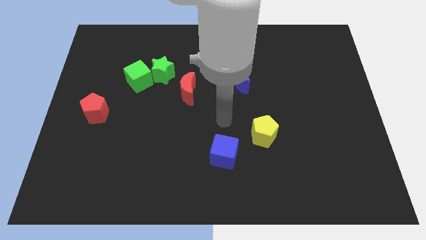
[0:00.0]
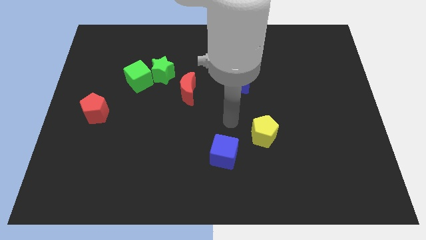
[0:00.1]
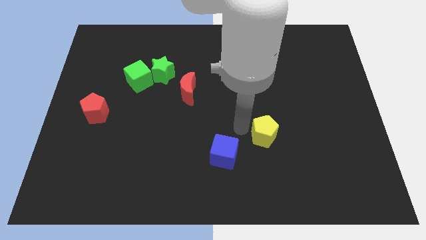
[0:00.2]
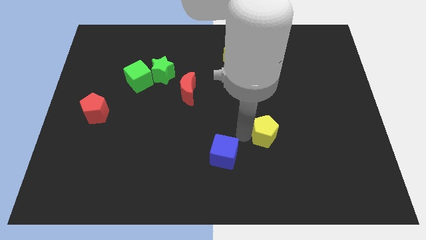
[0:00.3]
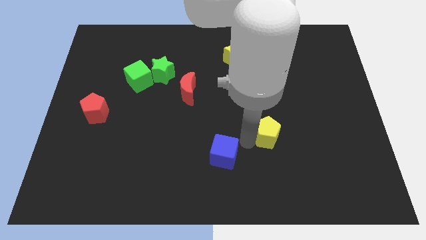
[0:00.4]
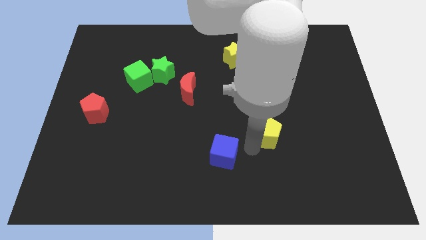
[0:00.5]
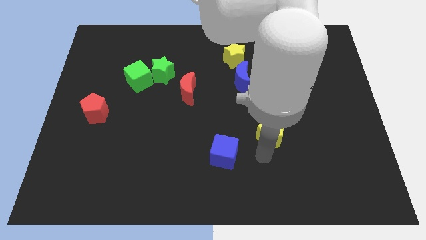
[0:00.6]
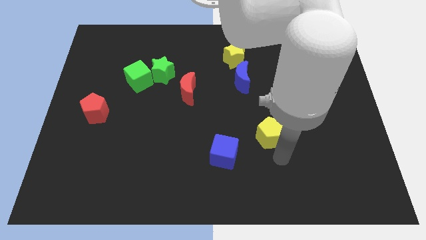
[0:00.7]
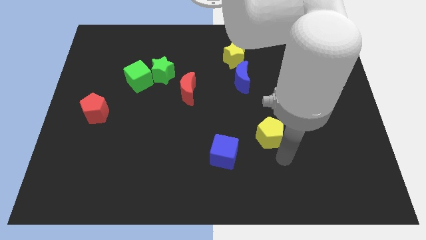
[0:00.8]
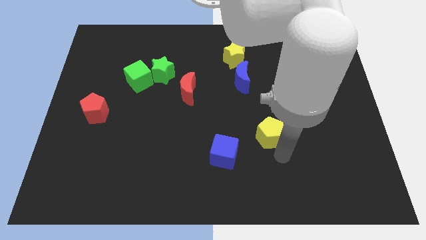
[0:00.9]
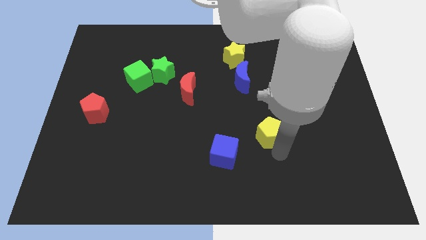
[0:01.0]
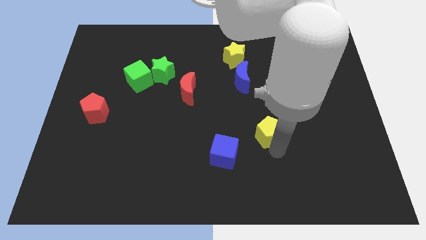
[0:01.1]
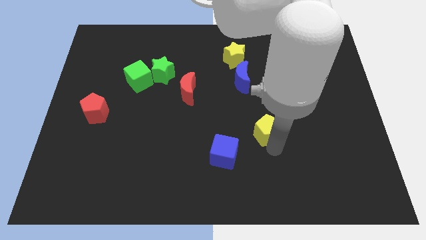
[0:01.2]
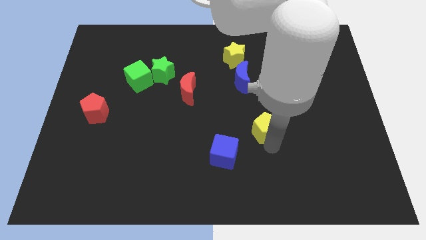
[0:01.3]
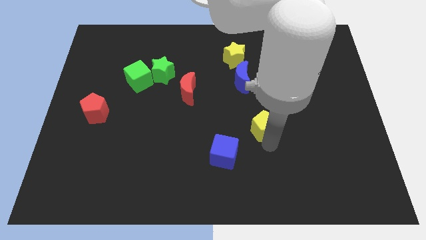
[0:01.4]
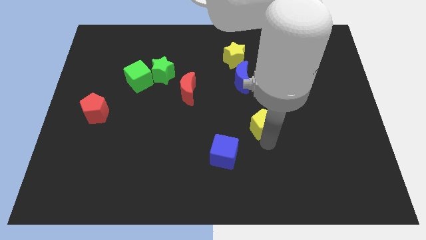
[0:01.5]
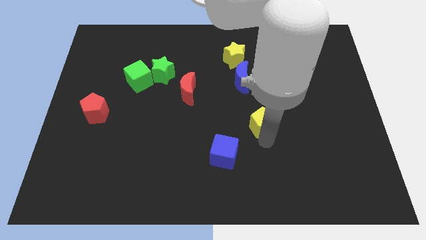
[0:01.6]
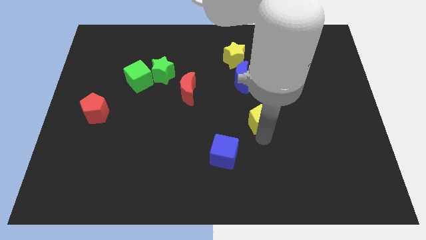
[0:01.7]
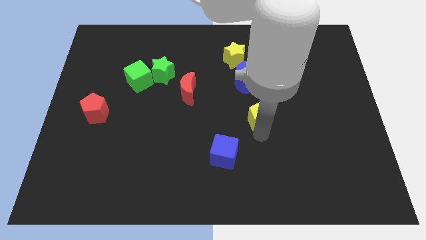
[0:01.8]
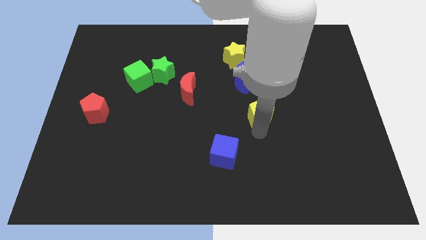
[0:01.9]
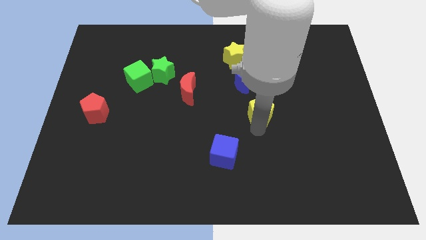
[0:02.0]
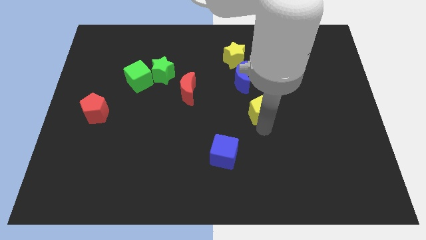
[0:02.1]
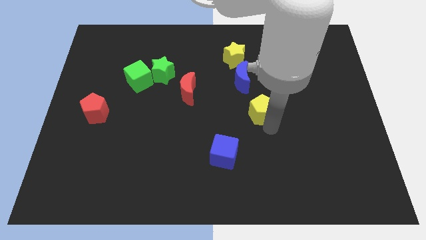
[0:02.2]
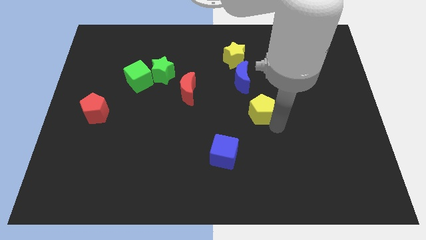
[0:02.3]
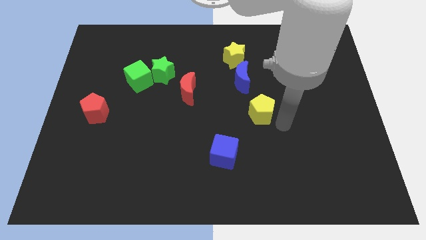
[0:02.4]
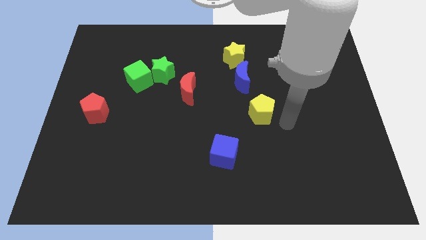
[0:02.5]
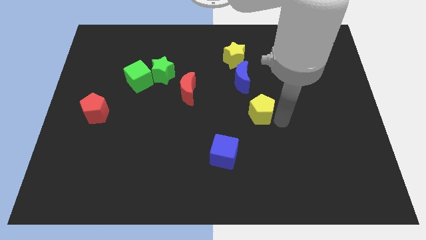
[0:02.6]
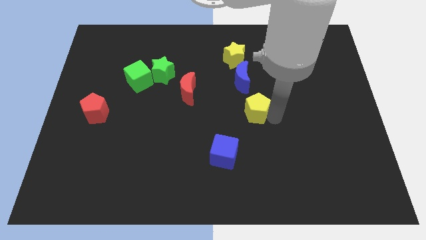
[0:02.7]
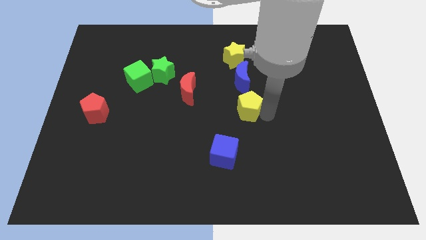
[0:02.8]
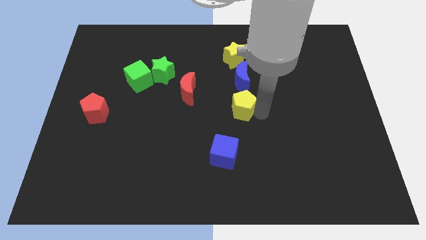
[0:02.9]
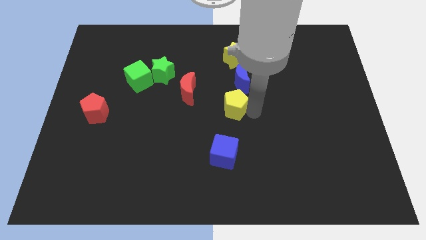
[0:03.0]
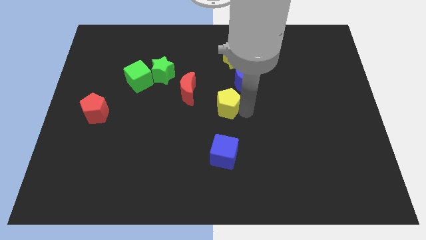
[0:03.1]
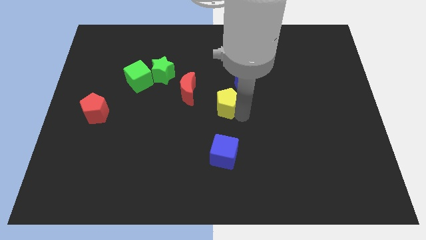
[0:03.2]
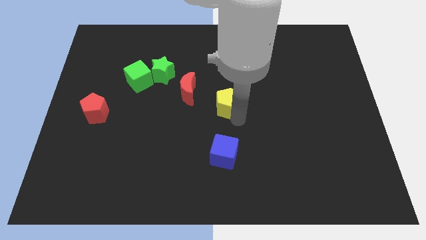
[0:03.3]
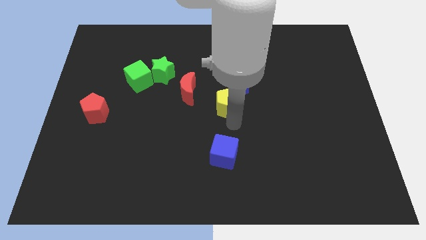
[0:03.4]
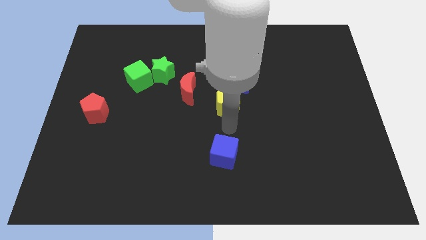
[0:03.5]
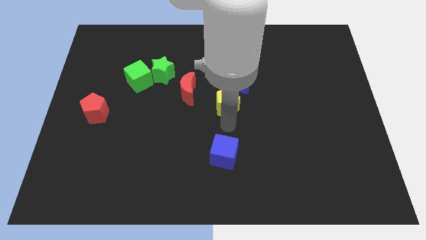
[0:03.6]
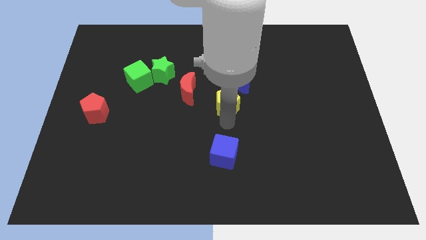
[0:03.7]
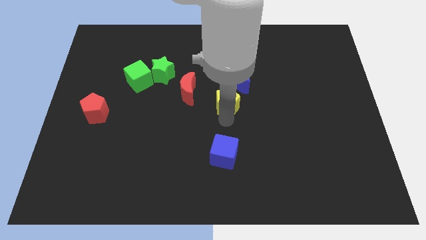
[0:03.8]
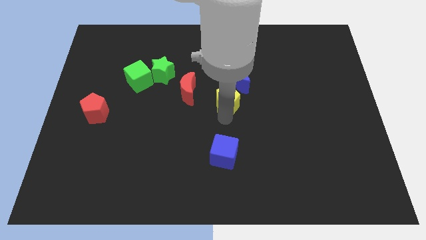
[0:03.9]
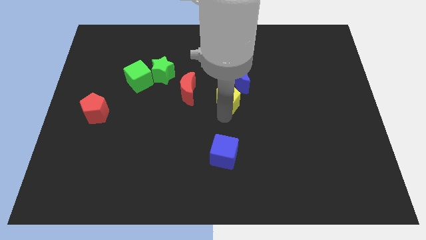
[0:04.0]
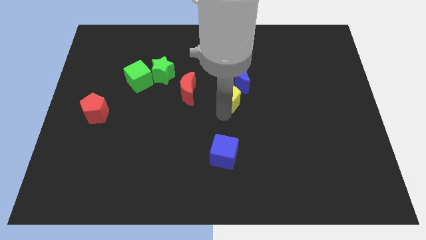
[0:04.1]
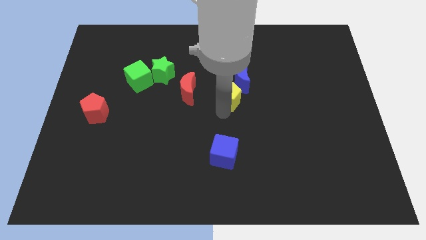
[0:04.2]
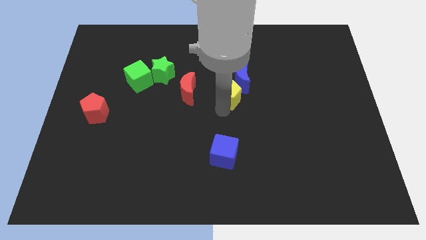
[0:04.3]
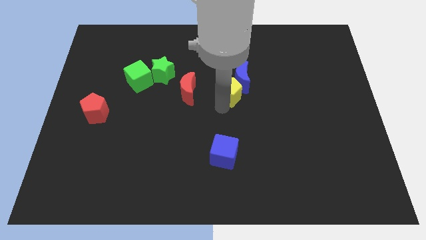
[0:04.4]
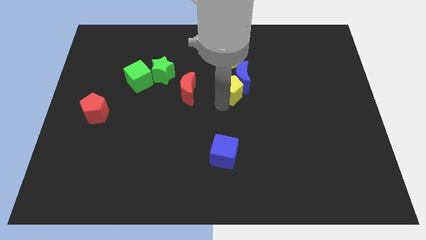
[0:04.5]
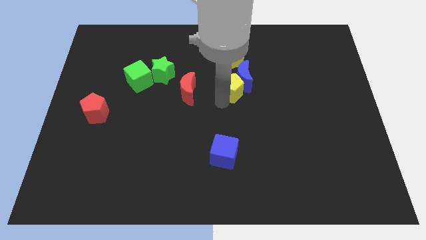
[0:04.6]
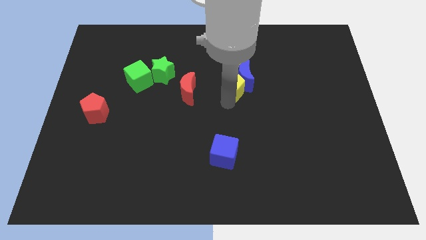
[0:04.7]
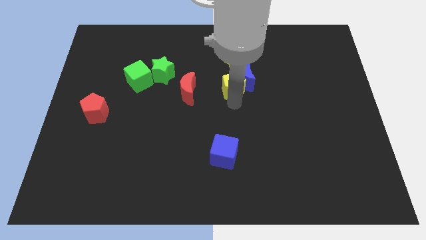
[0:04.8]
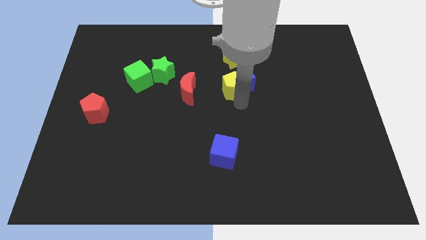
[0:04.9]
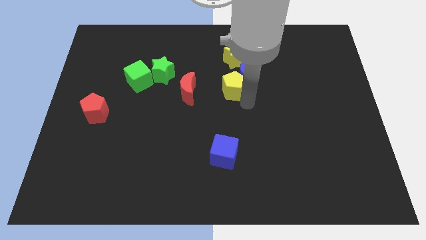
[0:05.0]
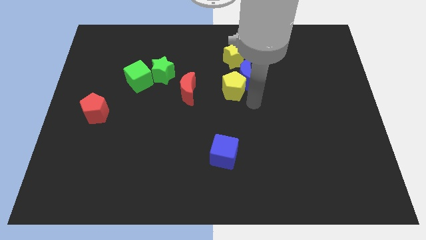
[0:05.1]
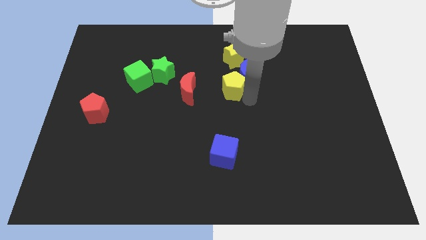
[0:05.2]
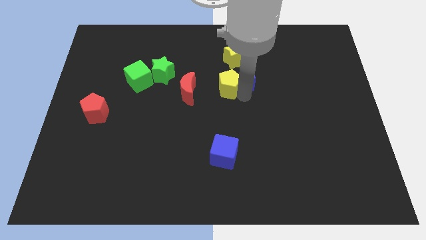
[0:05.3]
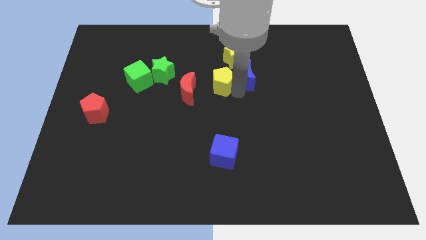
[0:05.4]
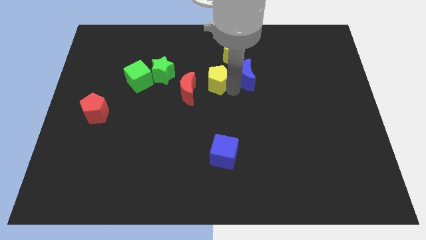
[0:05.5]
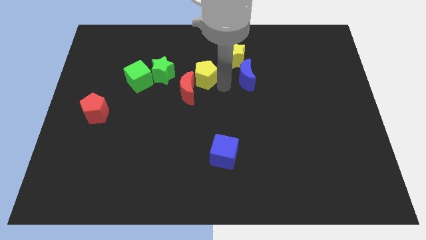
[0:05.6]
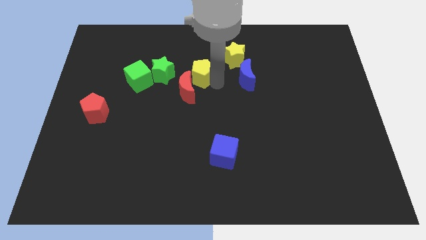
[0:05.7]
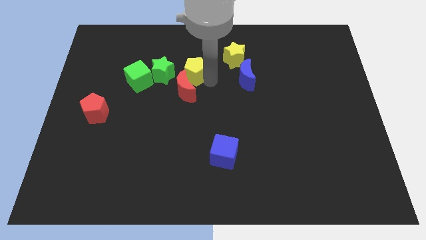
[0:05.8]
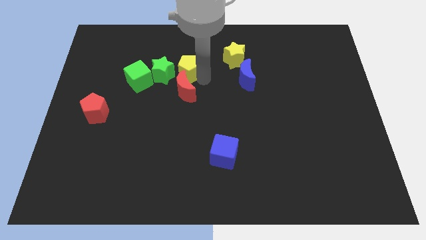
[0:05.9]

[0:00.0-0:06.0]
push the yellow pentagon left of the yellow star

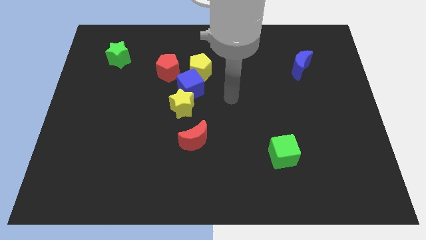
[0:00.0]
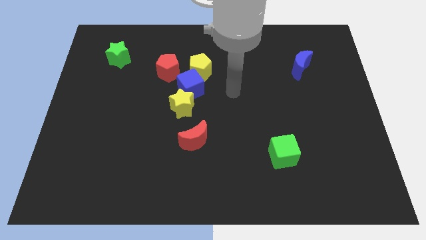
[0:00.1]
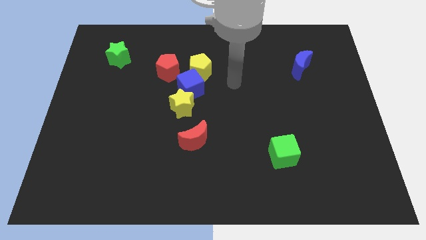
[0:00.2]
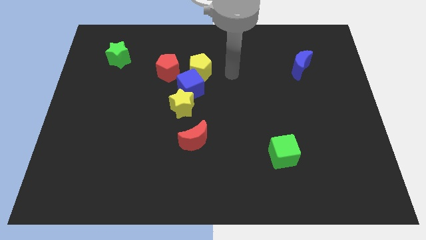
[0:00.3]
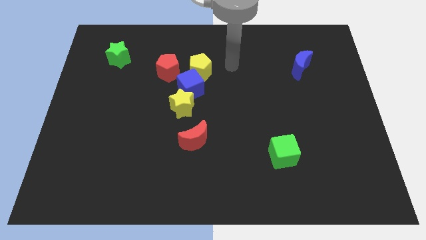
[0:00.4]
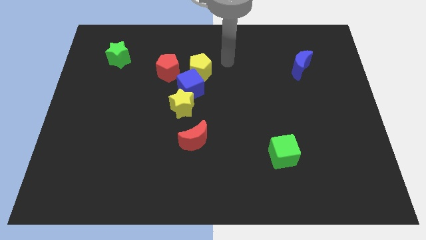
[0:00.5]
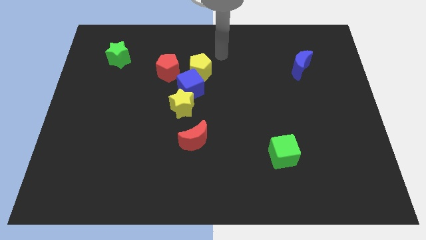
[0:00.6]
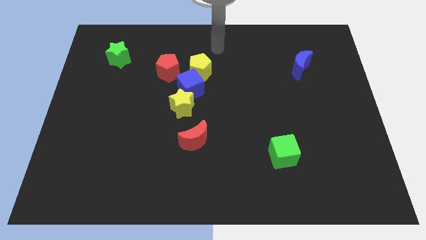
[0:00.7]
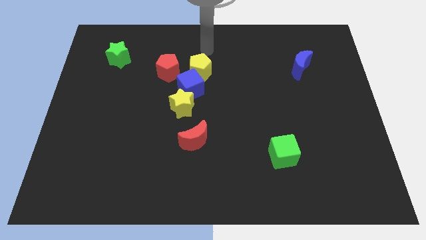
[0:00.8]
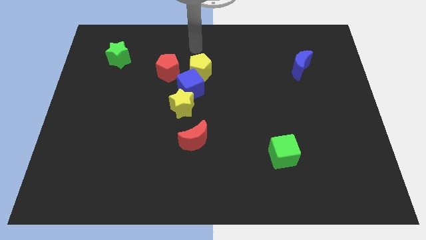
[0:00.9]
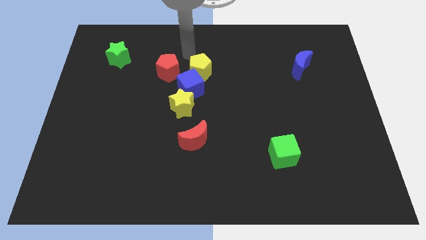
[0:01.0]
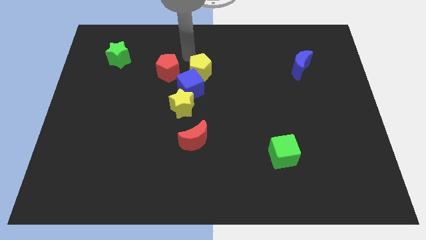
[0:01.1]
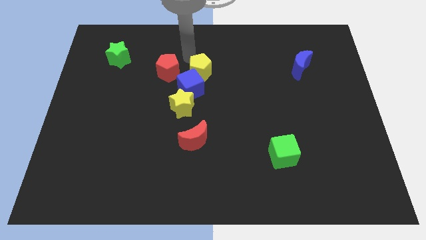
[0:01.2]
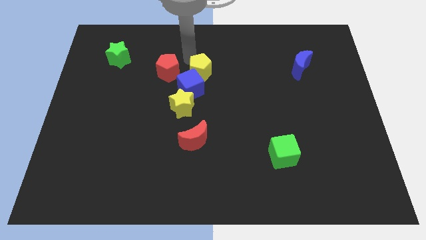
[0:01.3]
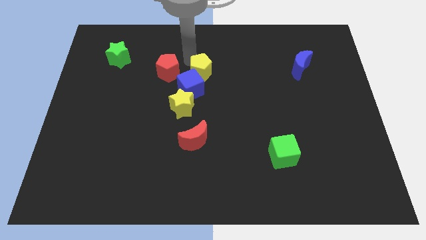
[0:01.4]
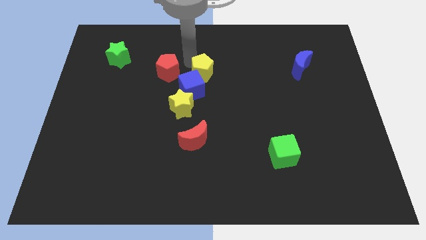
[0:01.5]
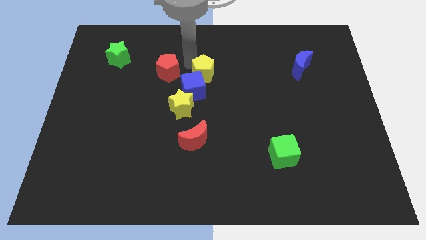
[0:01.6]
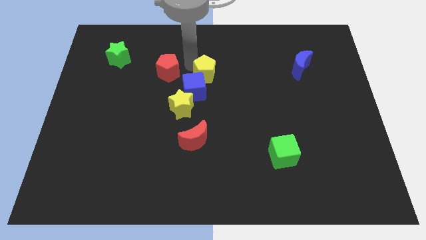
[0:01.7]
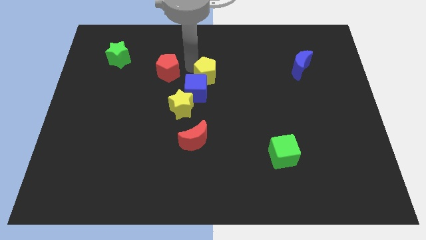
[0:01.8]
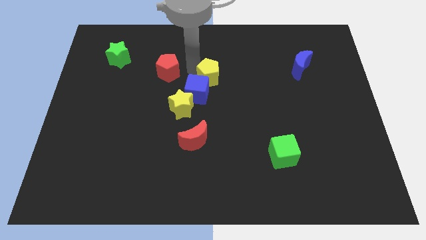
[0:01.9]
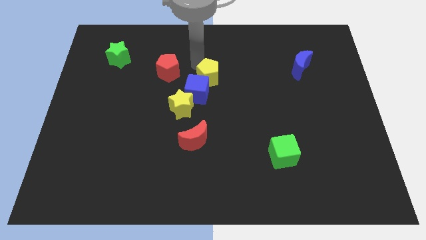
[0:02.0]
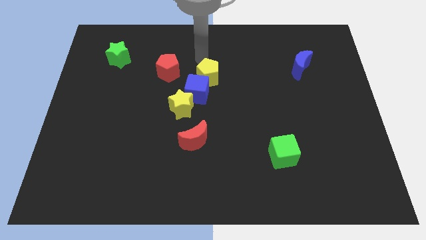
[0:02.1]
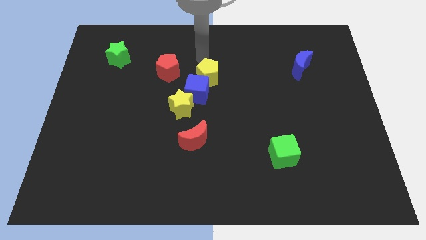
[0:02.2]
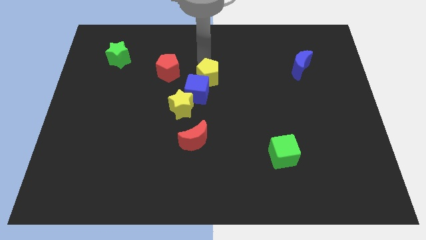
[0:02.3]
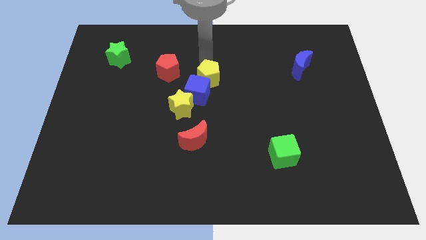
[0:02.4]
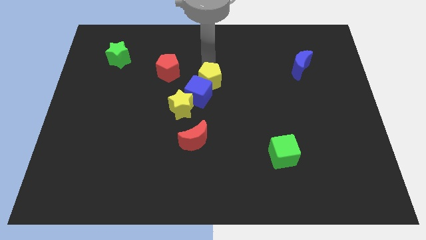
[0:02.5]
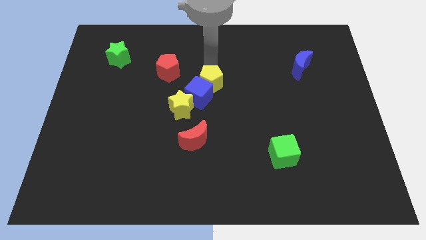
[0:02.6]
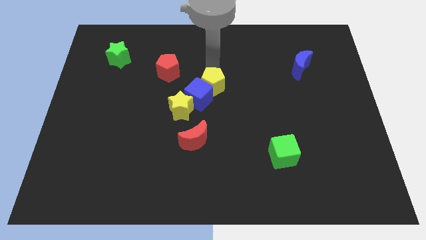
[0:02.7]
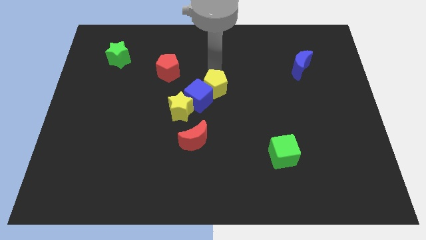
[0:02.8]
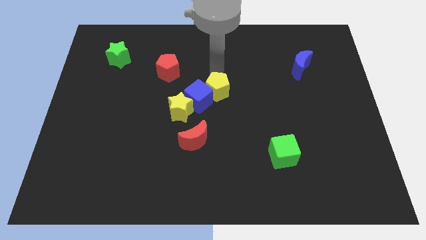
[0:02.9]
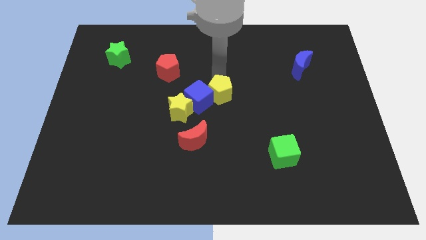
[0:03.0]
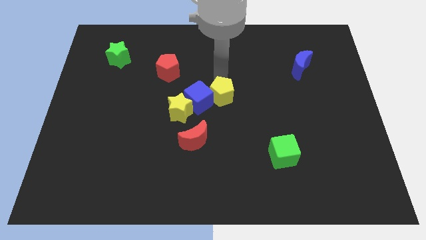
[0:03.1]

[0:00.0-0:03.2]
slide the yellow pentagon diagonally down and to the right of the blue cube
